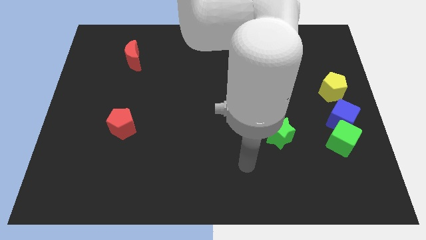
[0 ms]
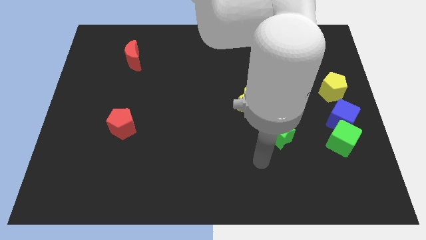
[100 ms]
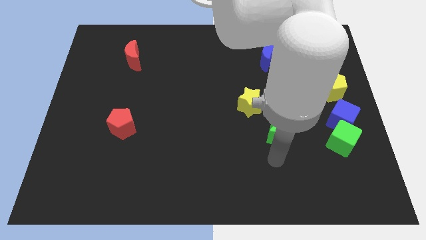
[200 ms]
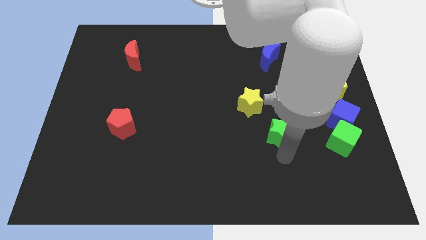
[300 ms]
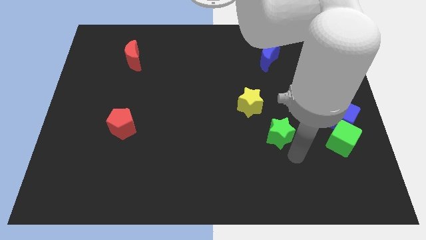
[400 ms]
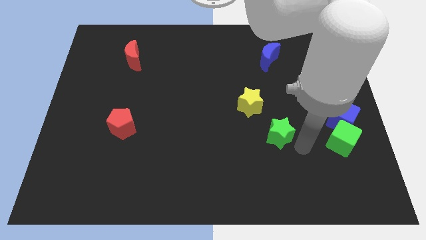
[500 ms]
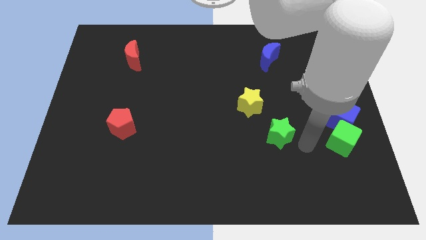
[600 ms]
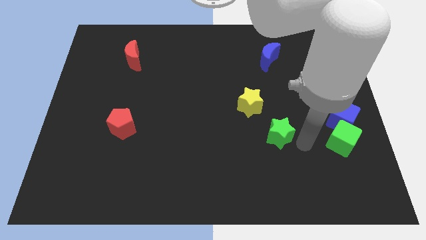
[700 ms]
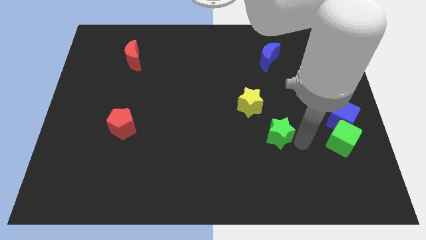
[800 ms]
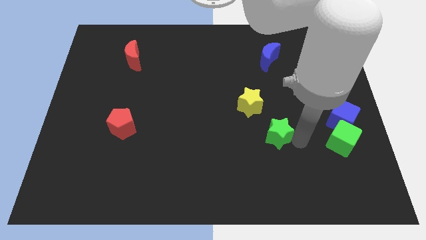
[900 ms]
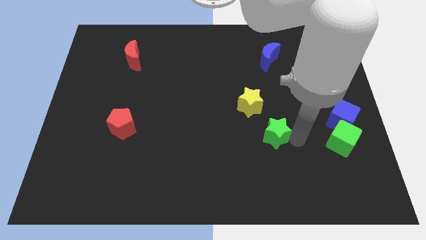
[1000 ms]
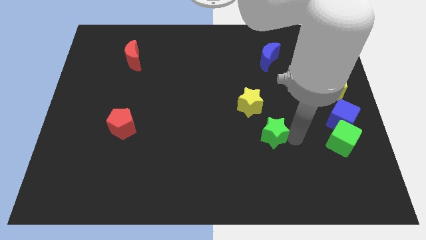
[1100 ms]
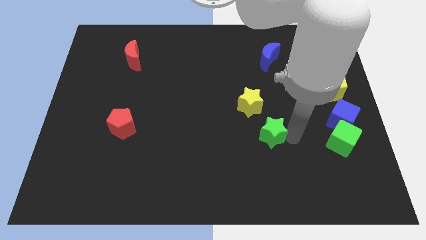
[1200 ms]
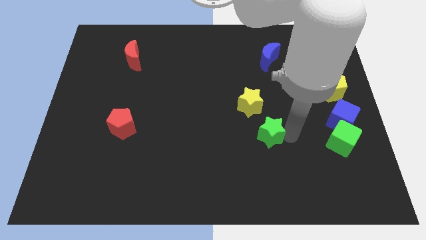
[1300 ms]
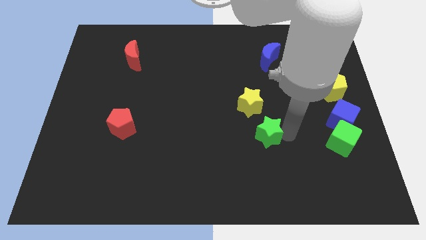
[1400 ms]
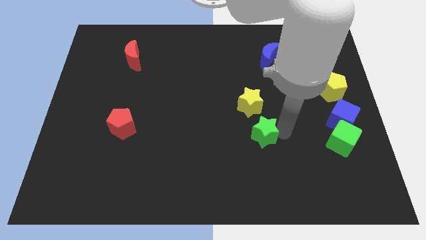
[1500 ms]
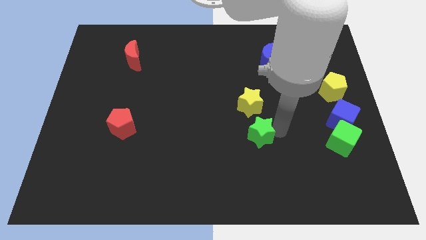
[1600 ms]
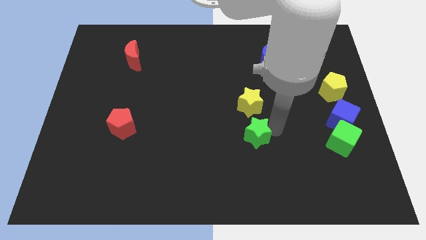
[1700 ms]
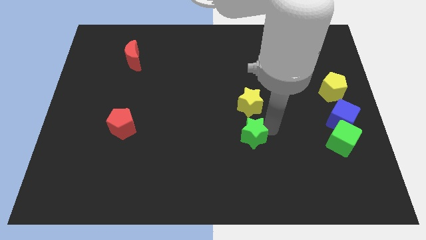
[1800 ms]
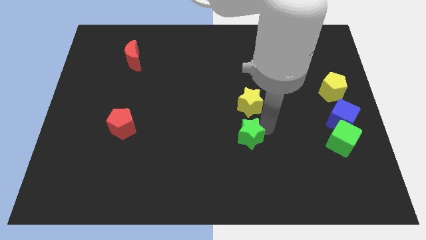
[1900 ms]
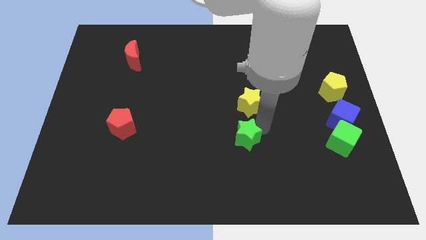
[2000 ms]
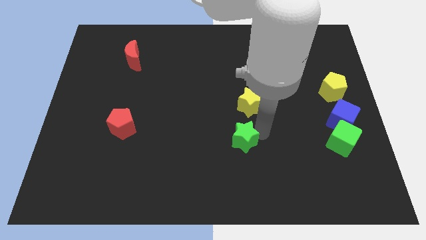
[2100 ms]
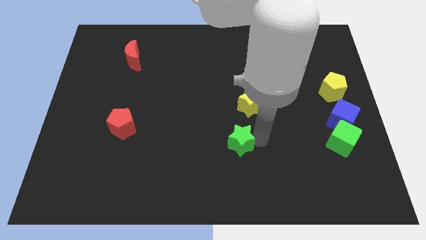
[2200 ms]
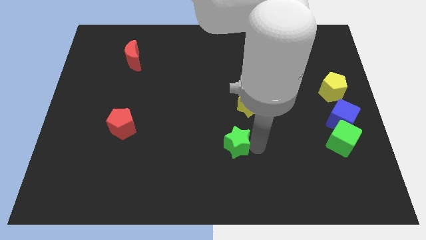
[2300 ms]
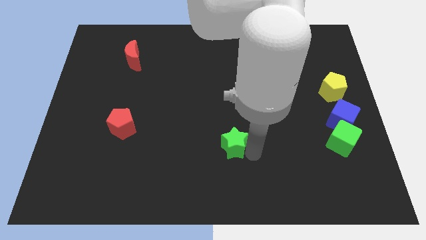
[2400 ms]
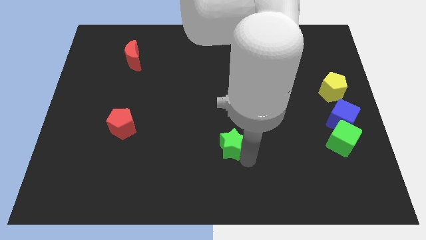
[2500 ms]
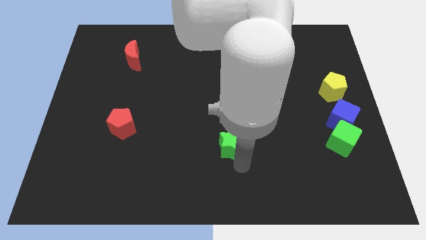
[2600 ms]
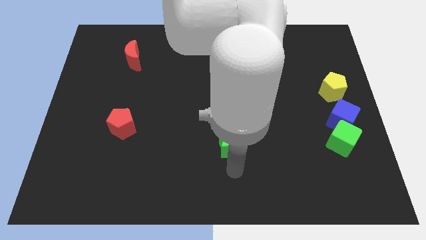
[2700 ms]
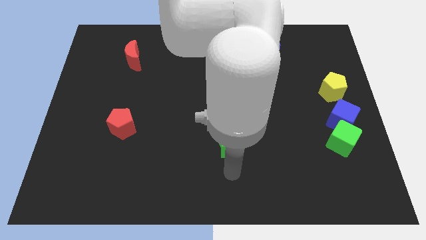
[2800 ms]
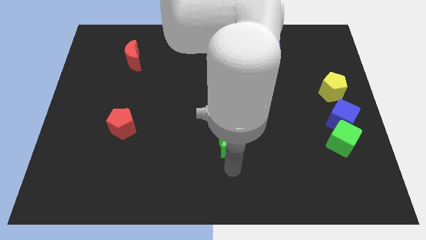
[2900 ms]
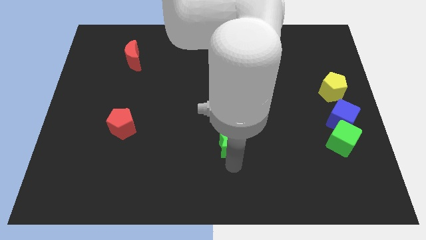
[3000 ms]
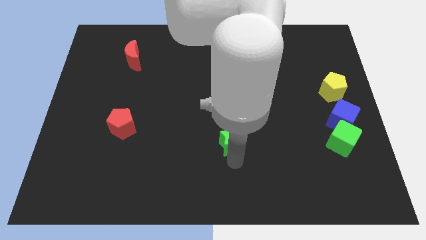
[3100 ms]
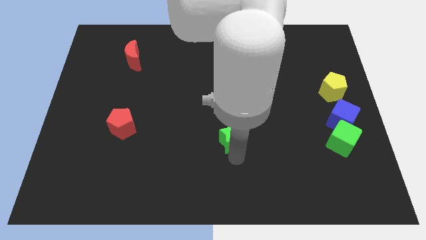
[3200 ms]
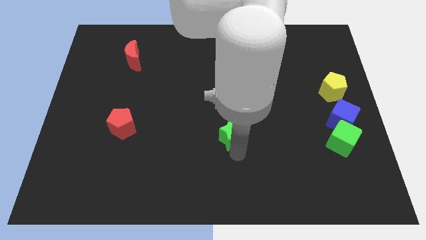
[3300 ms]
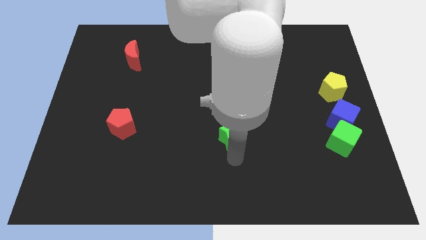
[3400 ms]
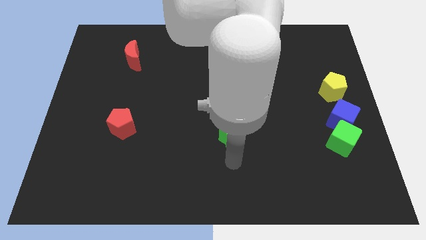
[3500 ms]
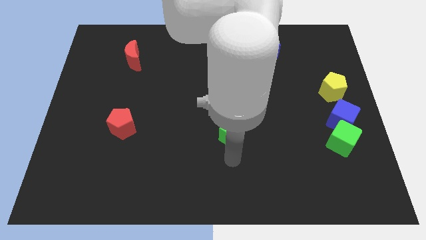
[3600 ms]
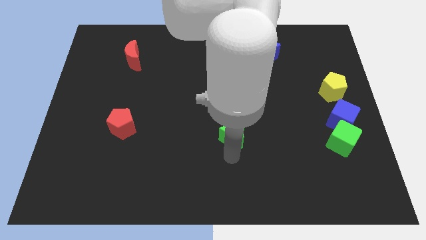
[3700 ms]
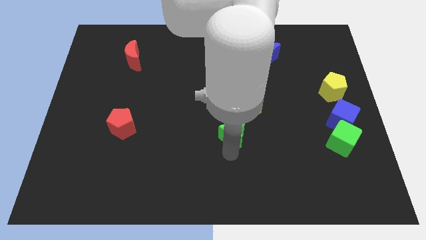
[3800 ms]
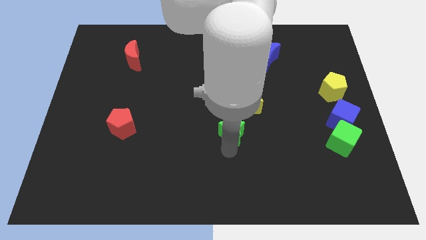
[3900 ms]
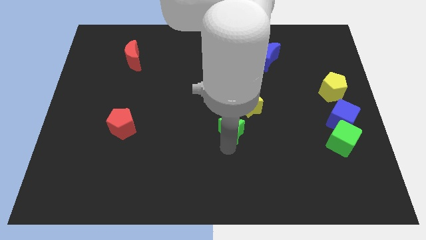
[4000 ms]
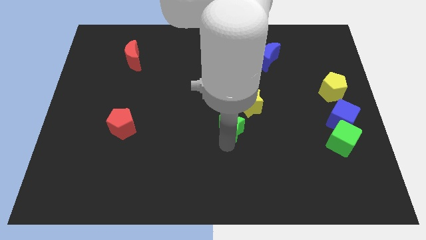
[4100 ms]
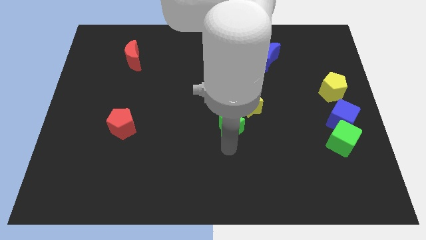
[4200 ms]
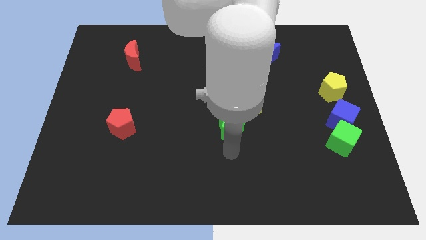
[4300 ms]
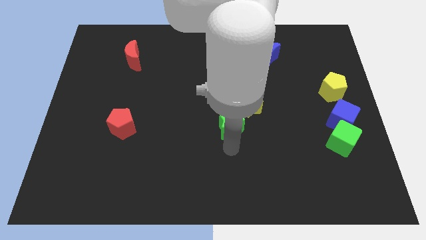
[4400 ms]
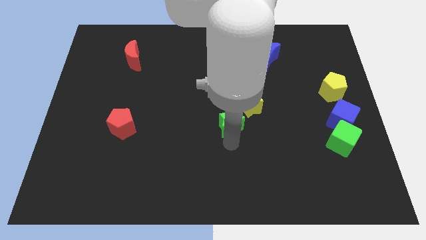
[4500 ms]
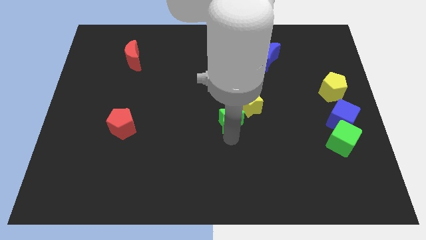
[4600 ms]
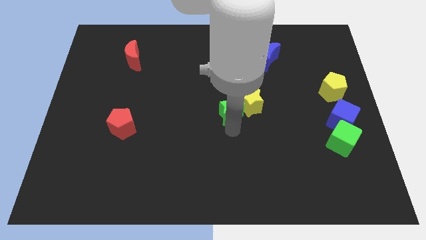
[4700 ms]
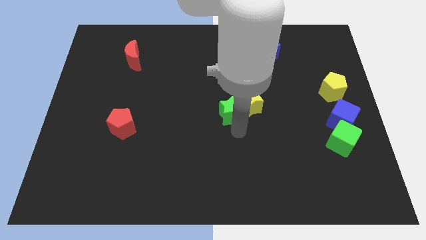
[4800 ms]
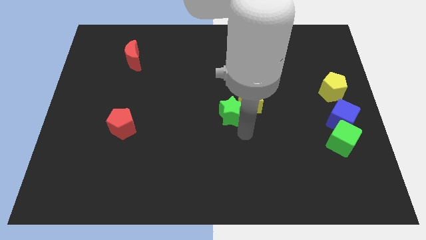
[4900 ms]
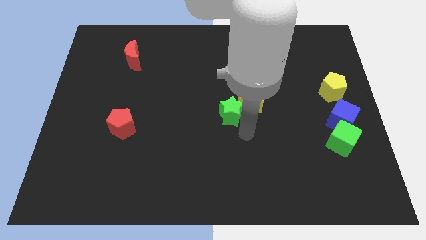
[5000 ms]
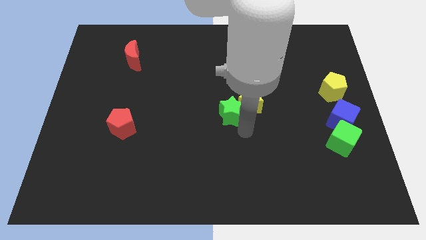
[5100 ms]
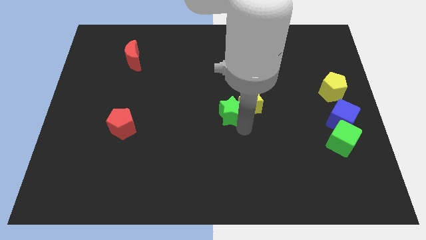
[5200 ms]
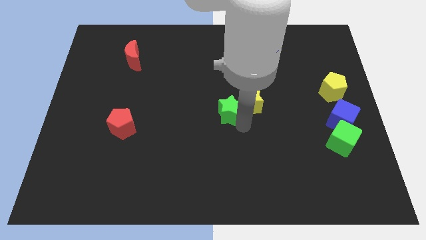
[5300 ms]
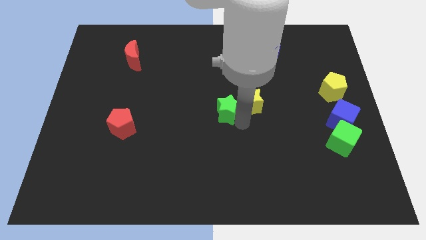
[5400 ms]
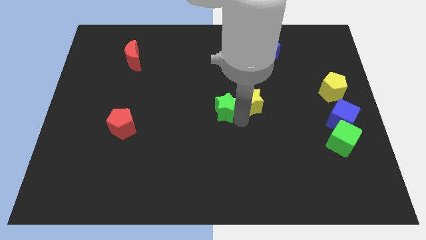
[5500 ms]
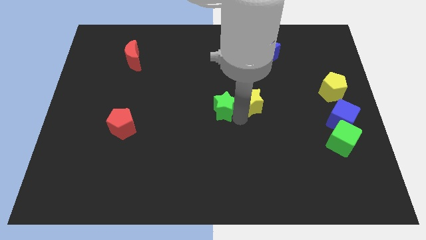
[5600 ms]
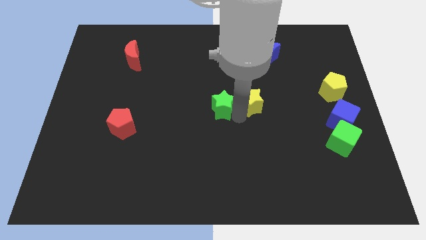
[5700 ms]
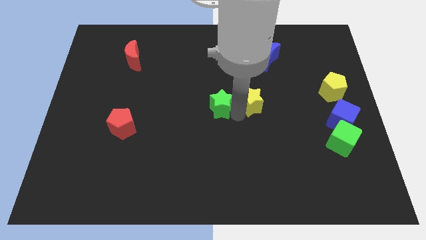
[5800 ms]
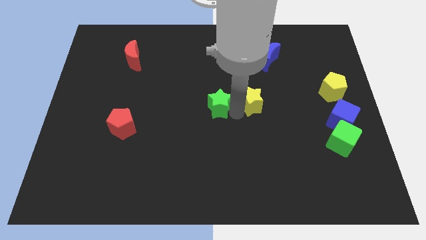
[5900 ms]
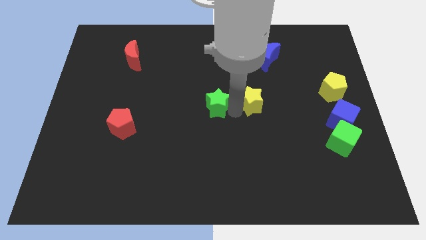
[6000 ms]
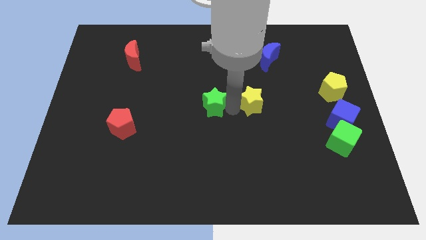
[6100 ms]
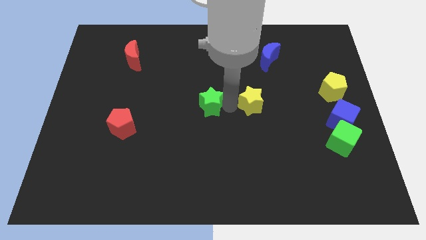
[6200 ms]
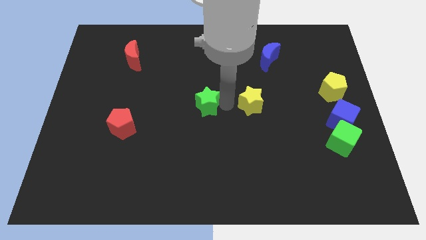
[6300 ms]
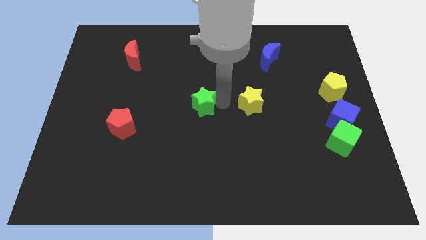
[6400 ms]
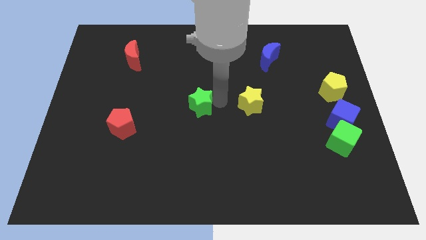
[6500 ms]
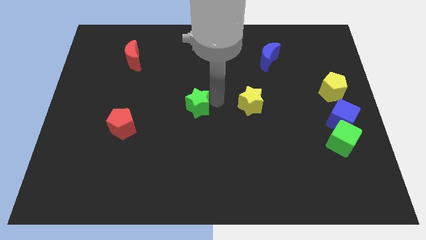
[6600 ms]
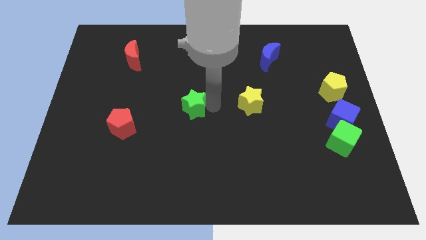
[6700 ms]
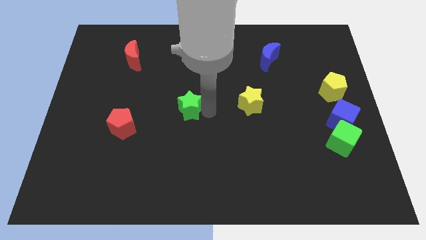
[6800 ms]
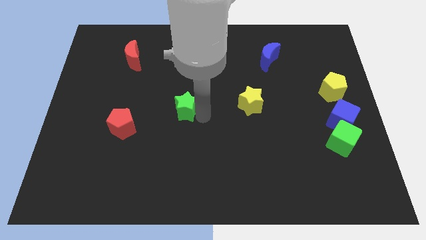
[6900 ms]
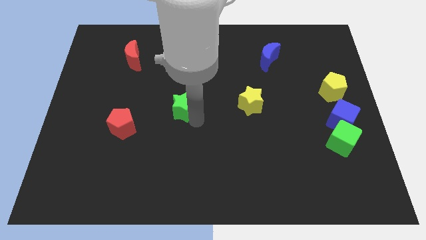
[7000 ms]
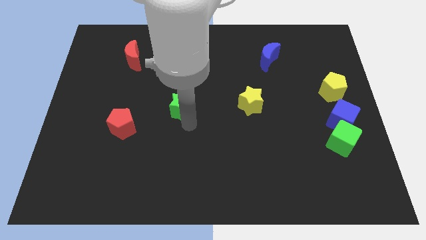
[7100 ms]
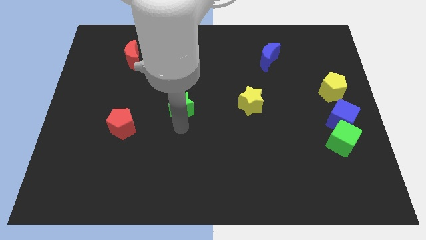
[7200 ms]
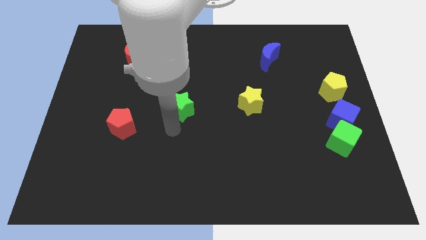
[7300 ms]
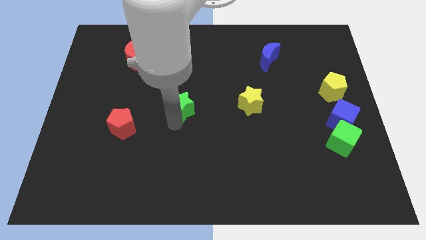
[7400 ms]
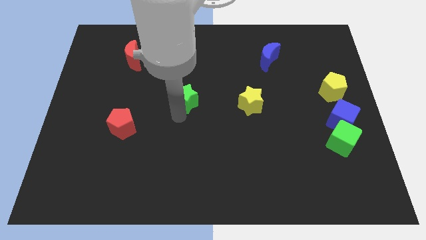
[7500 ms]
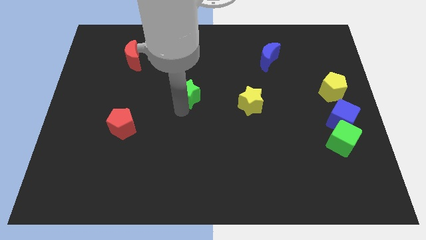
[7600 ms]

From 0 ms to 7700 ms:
push the green star upwards and left diagonally

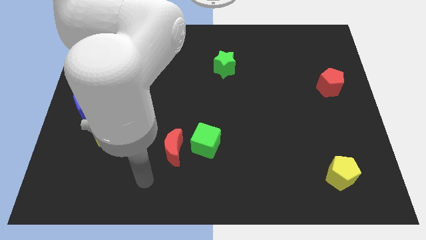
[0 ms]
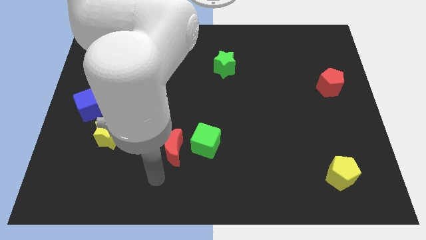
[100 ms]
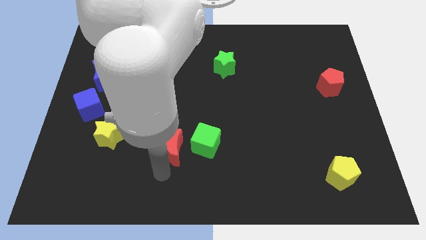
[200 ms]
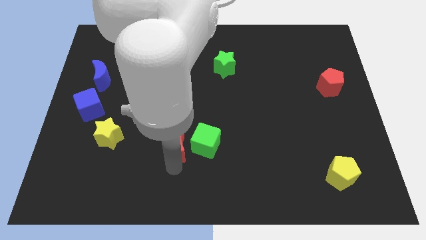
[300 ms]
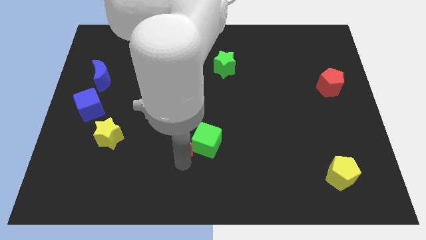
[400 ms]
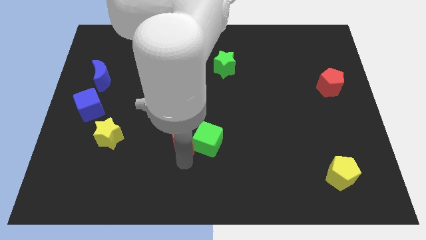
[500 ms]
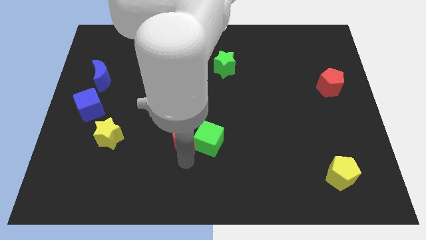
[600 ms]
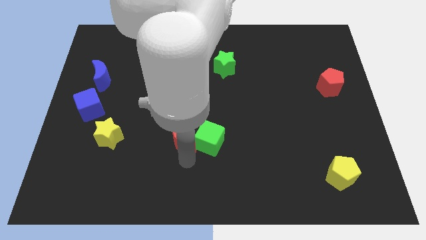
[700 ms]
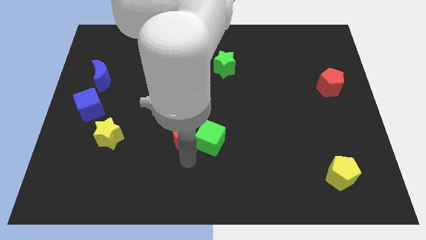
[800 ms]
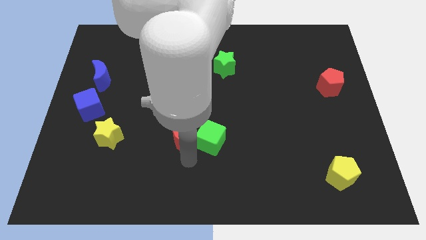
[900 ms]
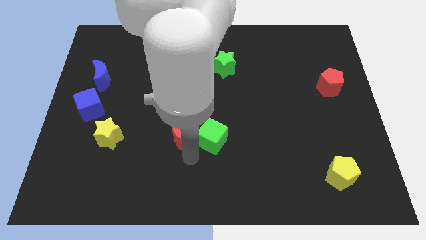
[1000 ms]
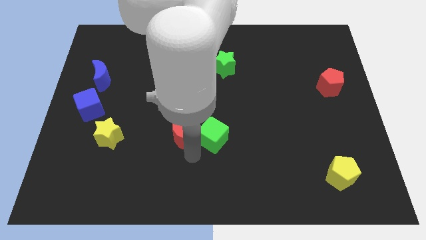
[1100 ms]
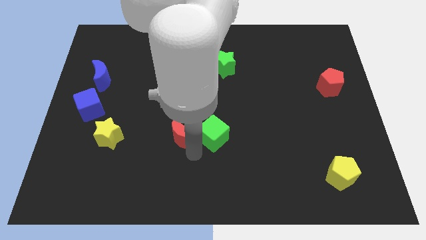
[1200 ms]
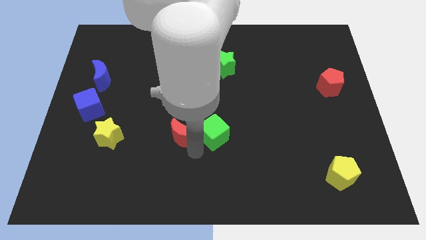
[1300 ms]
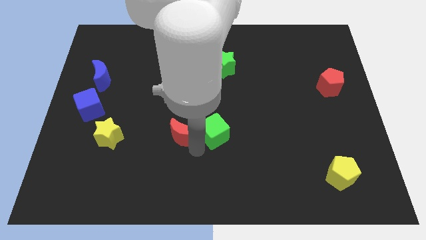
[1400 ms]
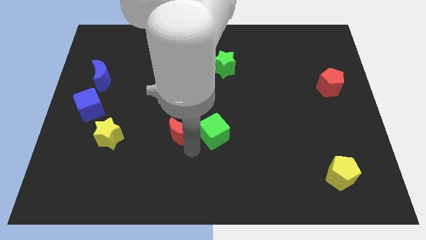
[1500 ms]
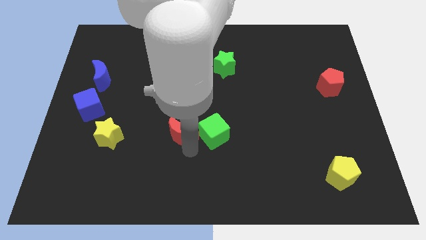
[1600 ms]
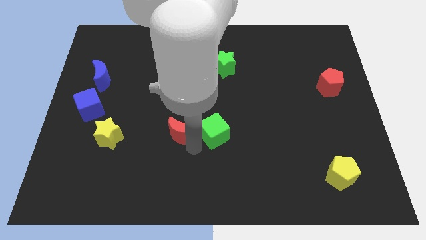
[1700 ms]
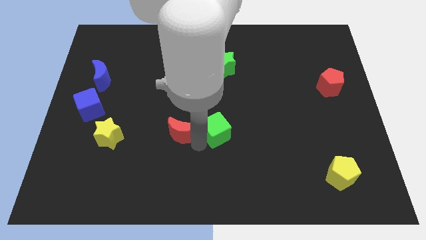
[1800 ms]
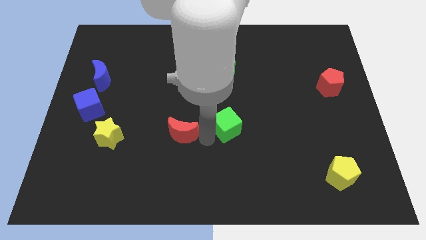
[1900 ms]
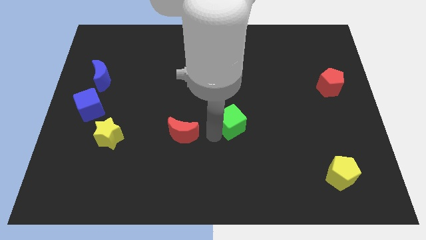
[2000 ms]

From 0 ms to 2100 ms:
slide the green cube a little bit upwards and right diagonally
